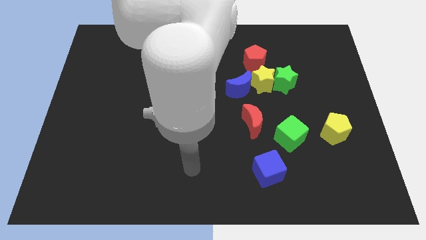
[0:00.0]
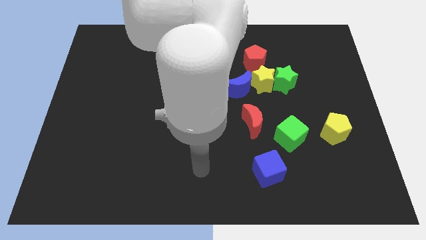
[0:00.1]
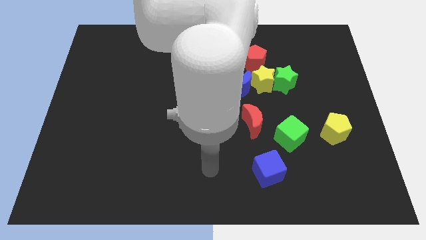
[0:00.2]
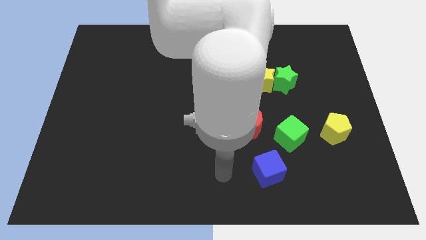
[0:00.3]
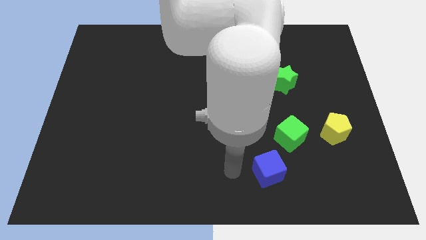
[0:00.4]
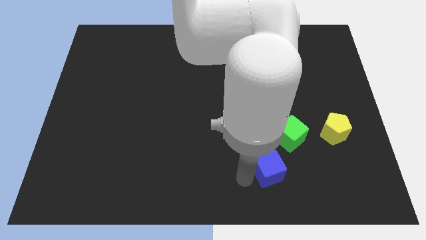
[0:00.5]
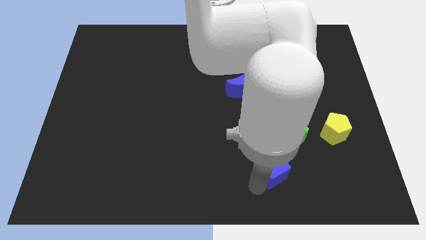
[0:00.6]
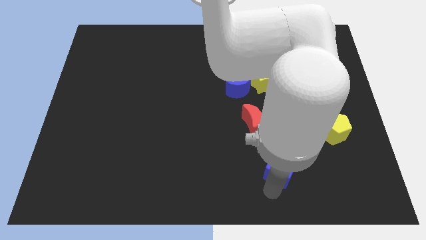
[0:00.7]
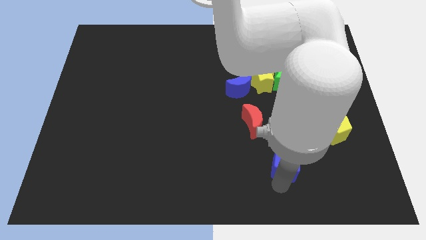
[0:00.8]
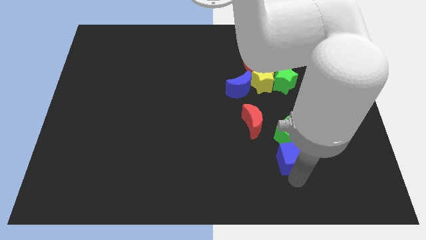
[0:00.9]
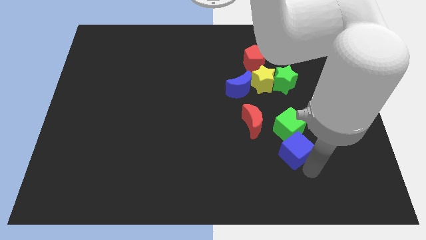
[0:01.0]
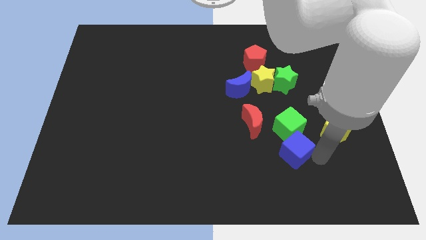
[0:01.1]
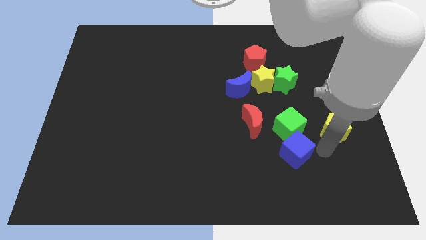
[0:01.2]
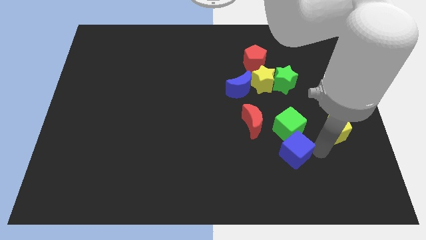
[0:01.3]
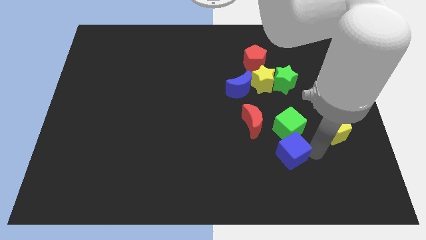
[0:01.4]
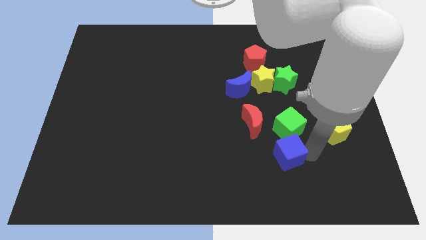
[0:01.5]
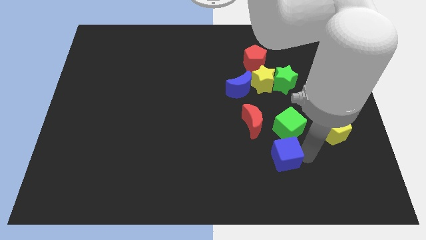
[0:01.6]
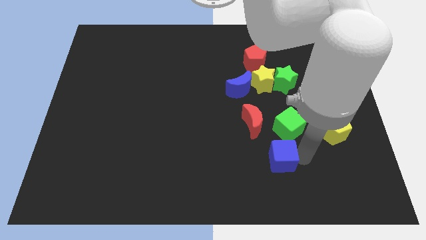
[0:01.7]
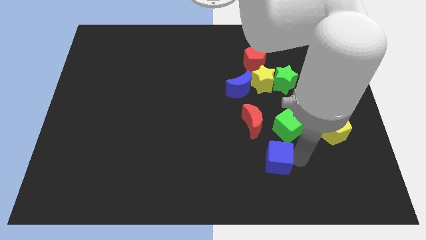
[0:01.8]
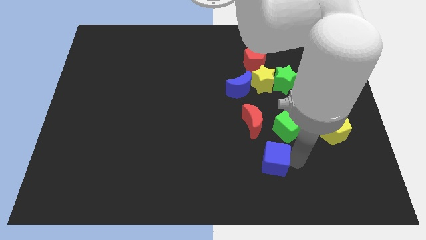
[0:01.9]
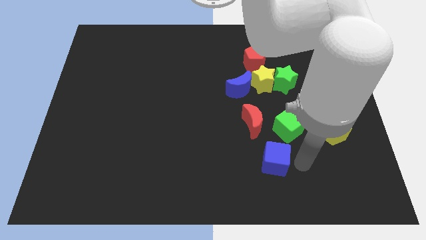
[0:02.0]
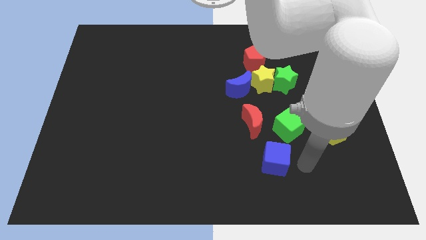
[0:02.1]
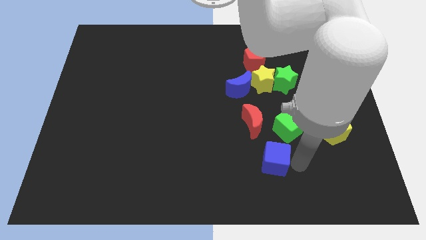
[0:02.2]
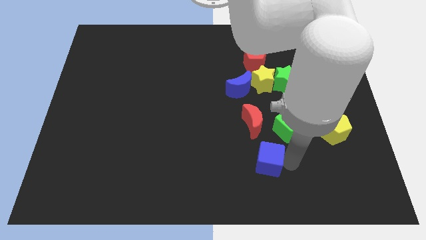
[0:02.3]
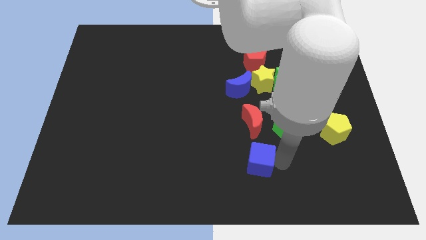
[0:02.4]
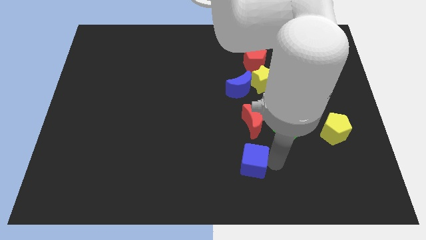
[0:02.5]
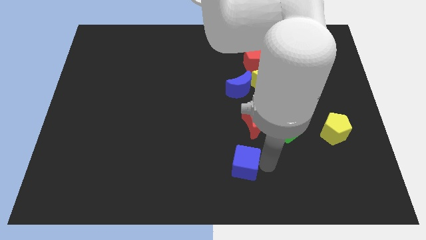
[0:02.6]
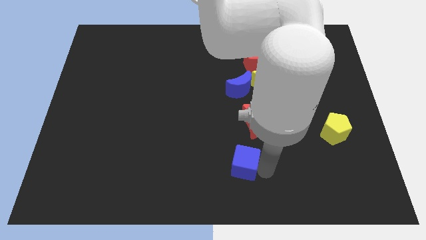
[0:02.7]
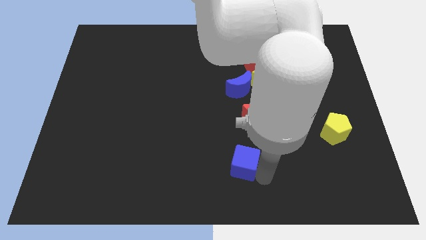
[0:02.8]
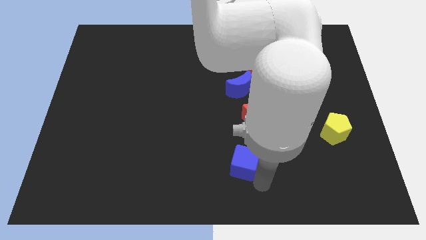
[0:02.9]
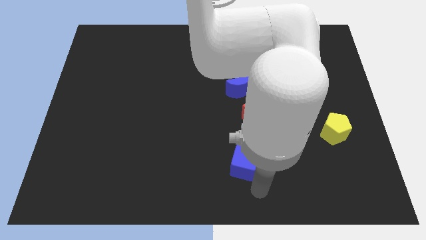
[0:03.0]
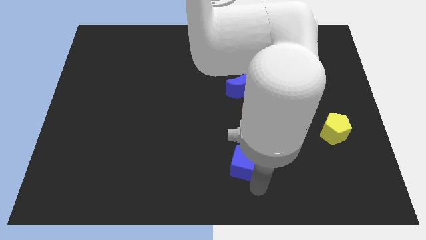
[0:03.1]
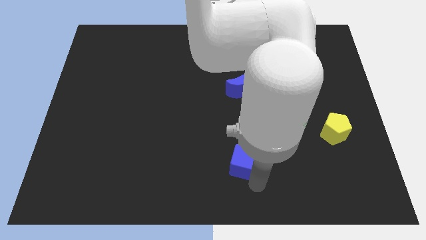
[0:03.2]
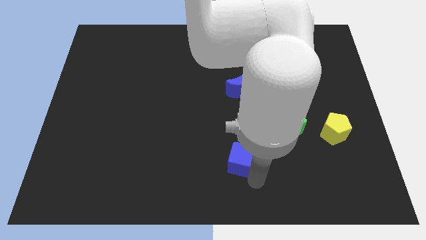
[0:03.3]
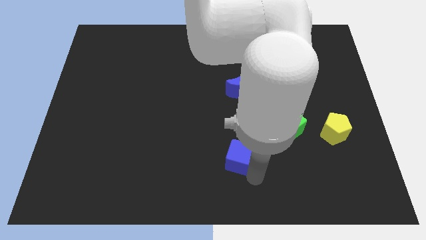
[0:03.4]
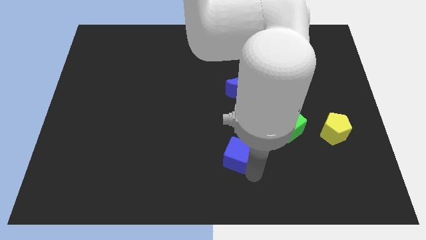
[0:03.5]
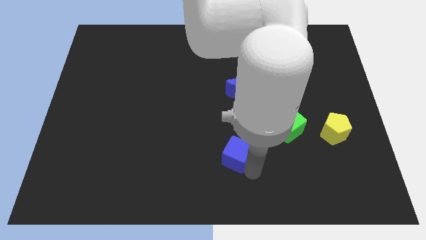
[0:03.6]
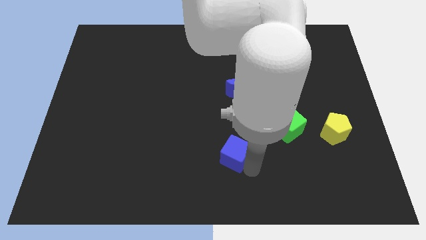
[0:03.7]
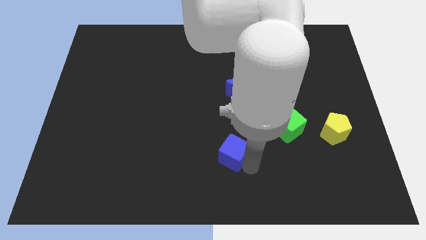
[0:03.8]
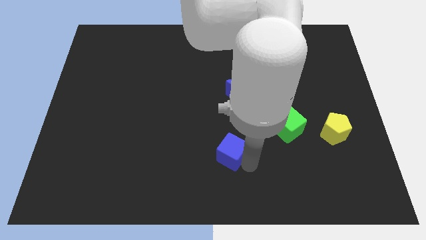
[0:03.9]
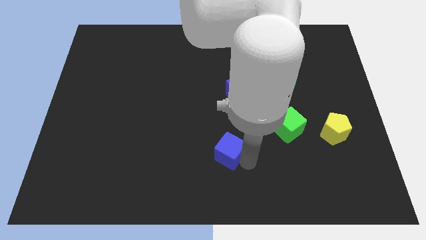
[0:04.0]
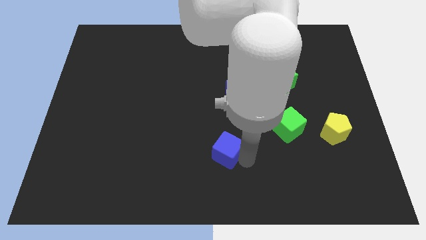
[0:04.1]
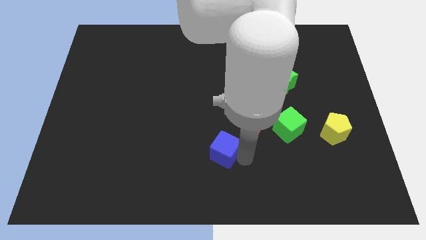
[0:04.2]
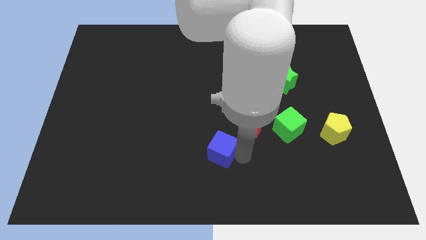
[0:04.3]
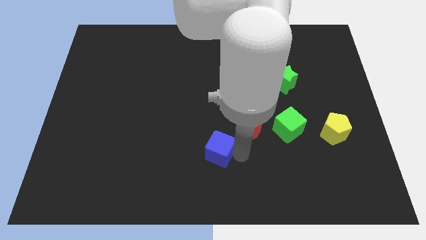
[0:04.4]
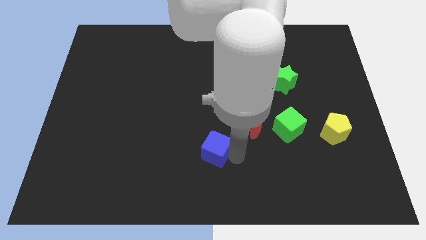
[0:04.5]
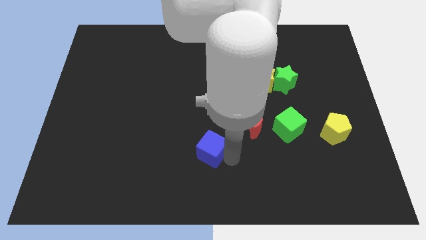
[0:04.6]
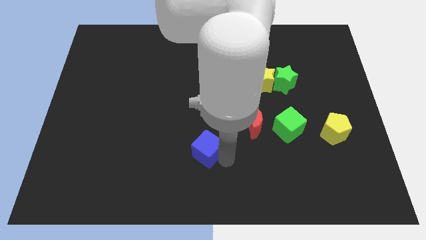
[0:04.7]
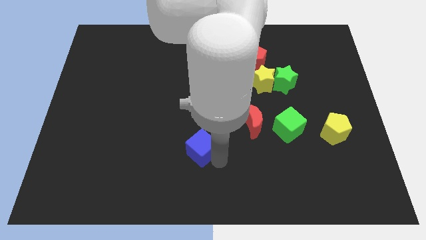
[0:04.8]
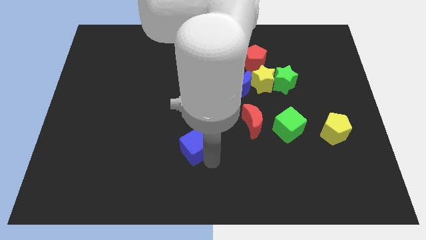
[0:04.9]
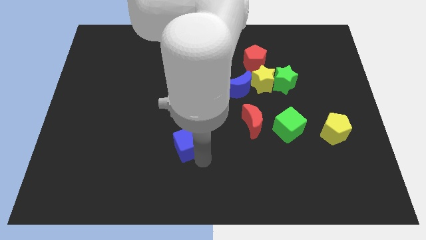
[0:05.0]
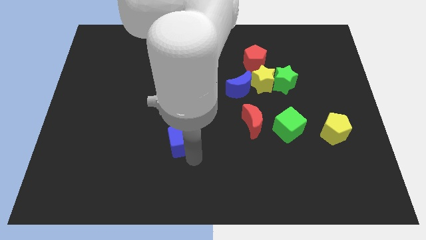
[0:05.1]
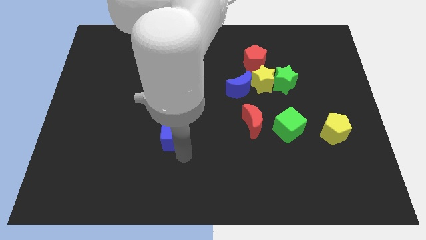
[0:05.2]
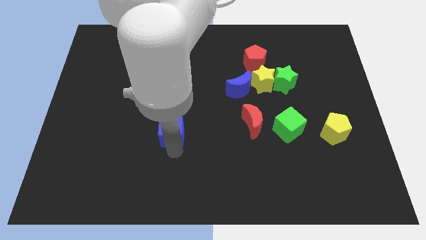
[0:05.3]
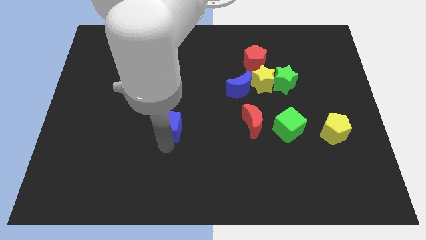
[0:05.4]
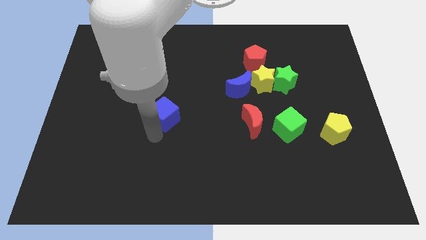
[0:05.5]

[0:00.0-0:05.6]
push the blue cube to the middle
